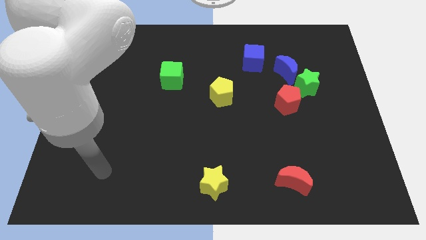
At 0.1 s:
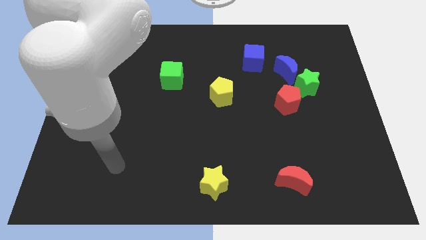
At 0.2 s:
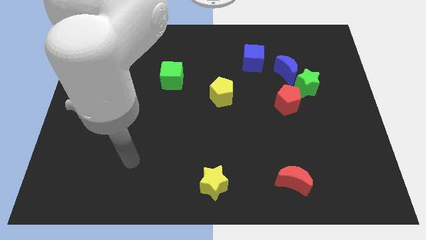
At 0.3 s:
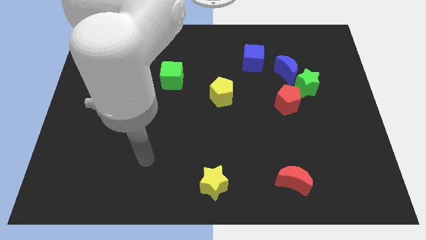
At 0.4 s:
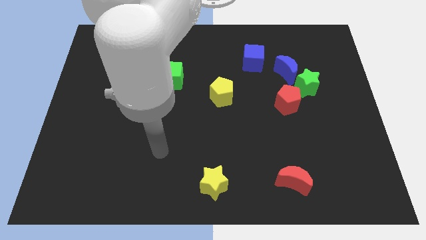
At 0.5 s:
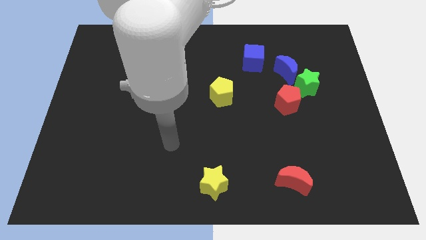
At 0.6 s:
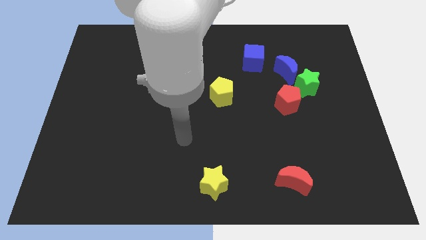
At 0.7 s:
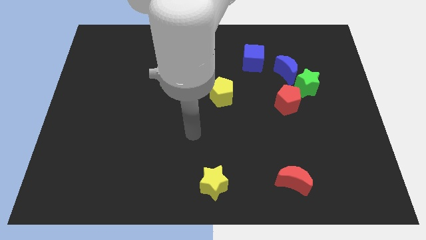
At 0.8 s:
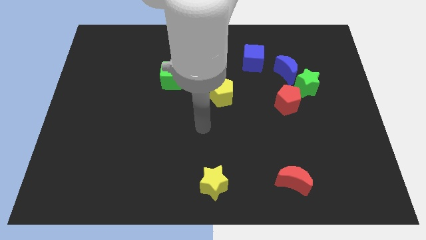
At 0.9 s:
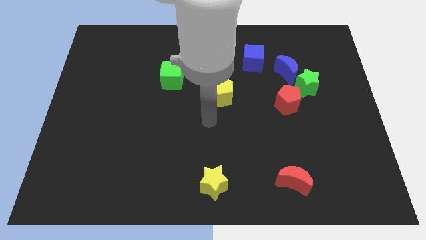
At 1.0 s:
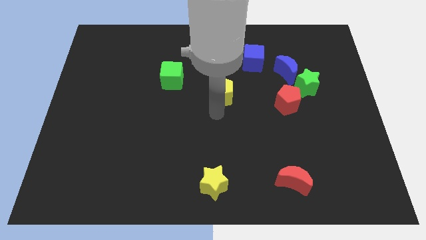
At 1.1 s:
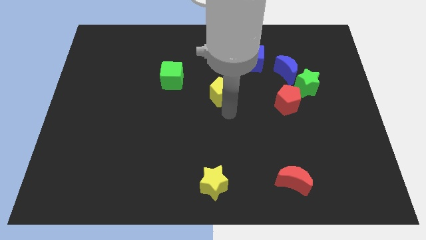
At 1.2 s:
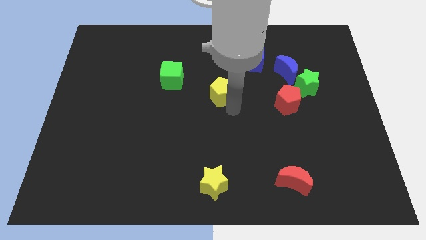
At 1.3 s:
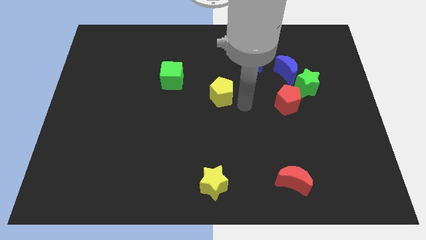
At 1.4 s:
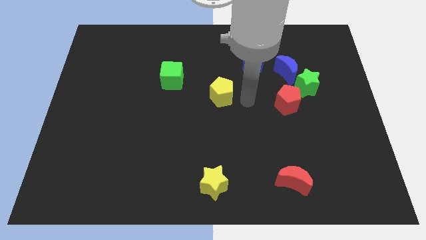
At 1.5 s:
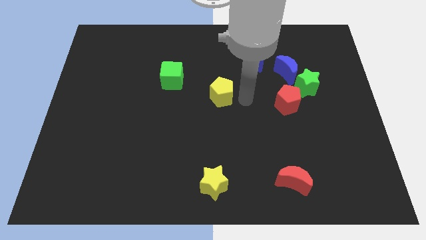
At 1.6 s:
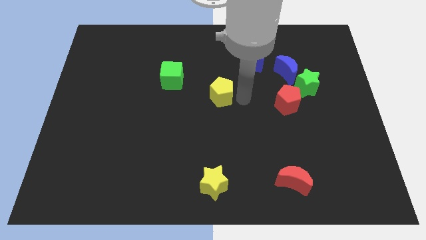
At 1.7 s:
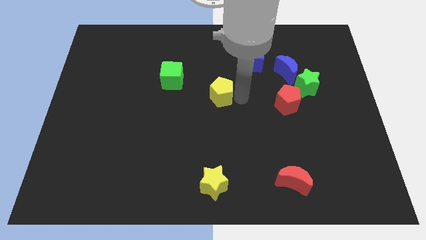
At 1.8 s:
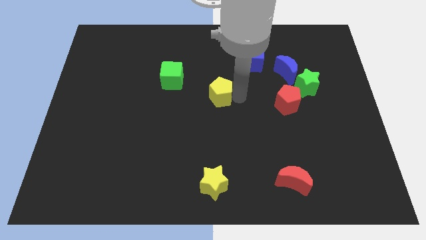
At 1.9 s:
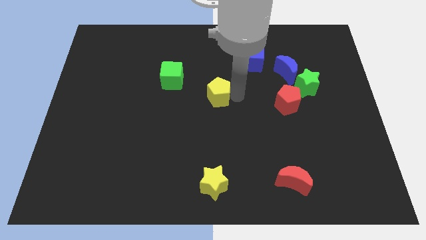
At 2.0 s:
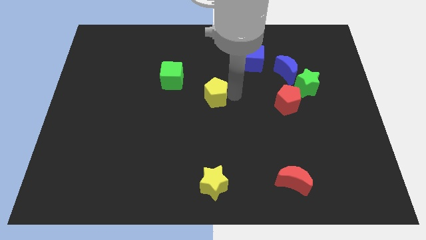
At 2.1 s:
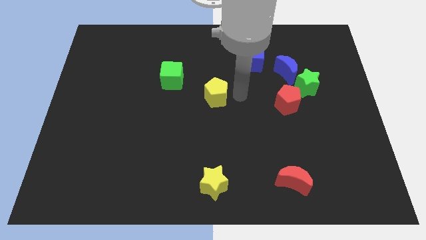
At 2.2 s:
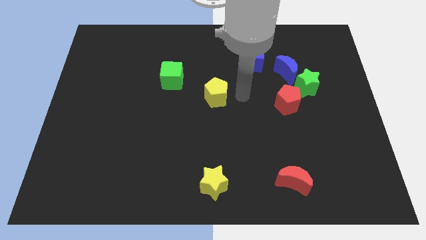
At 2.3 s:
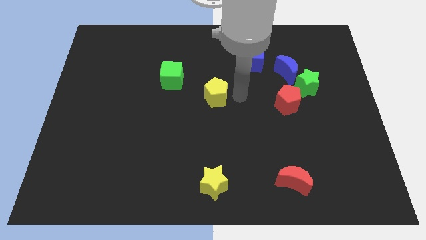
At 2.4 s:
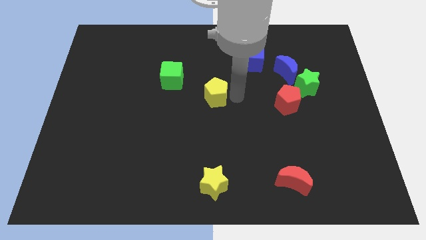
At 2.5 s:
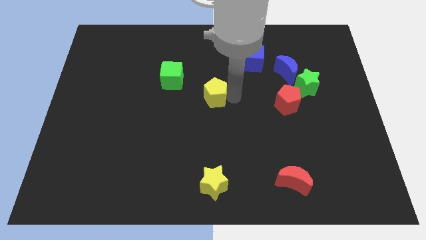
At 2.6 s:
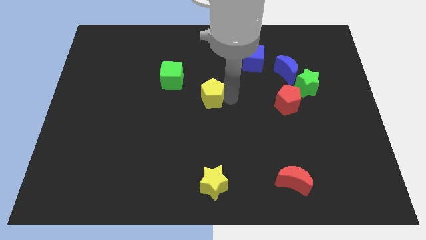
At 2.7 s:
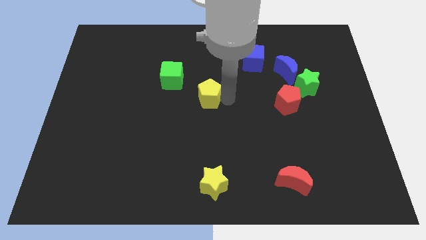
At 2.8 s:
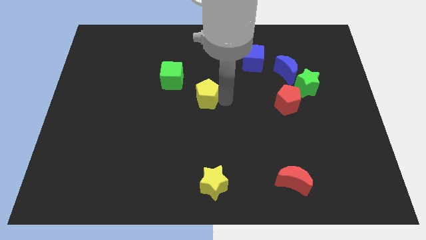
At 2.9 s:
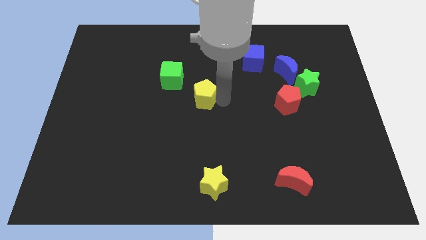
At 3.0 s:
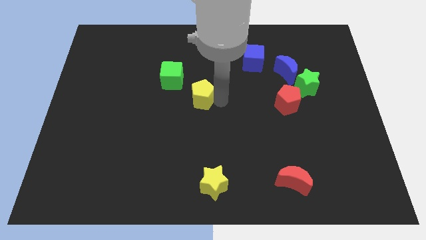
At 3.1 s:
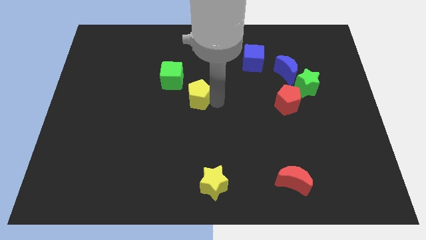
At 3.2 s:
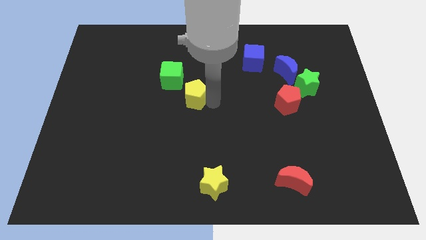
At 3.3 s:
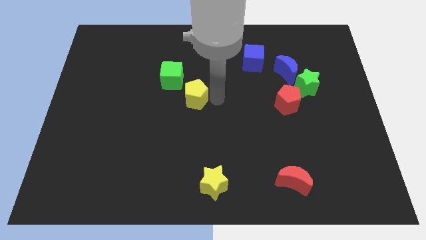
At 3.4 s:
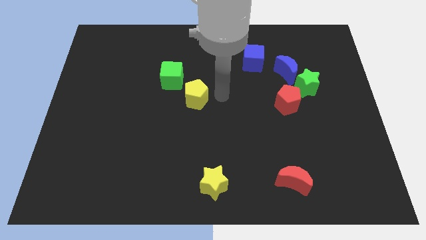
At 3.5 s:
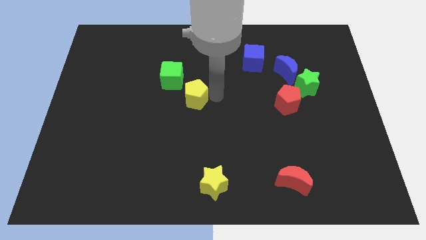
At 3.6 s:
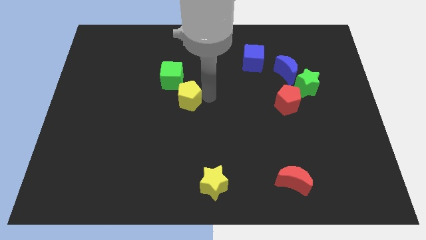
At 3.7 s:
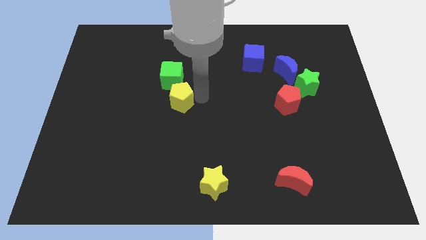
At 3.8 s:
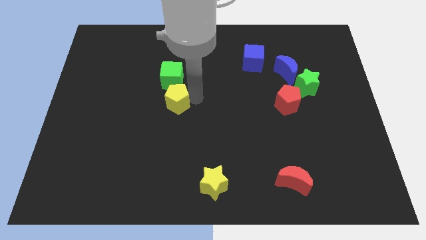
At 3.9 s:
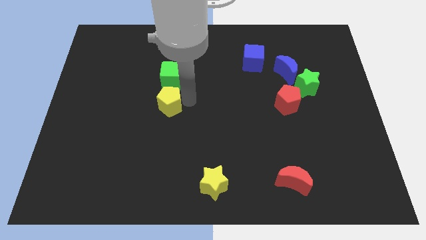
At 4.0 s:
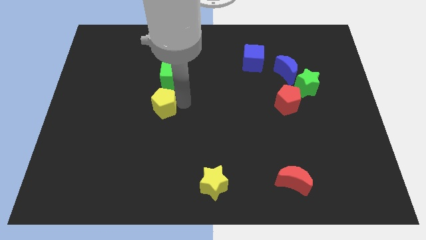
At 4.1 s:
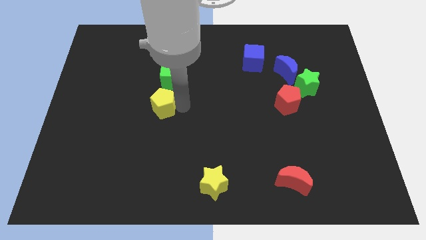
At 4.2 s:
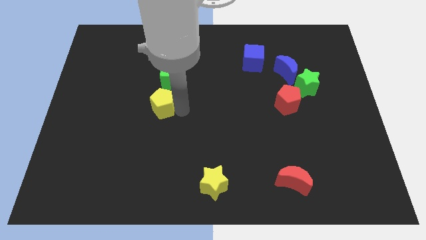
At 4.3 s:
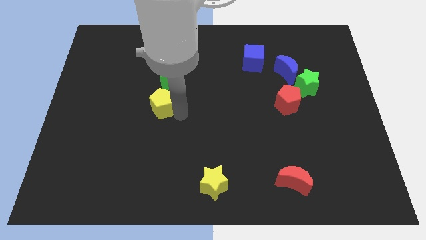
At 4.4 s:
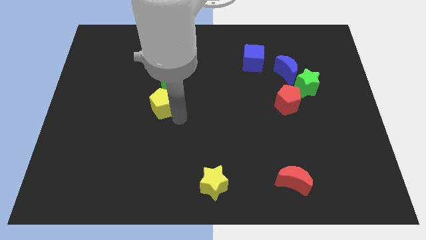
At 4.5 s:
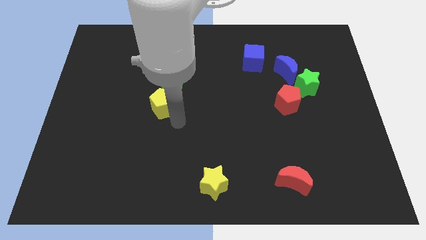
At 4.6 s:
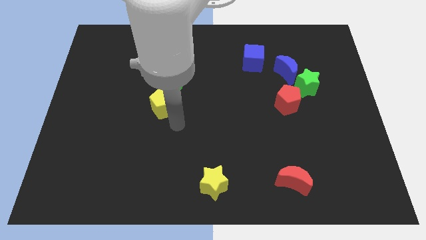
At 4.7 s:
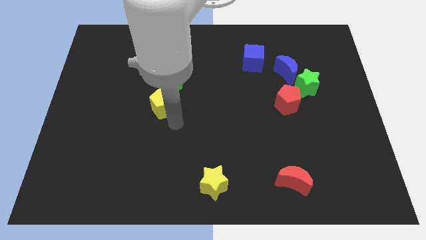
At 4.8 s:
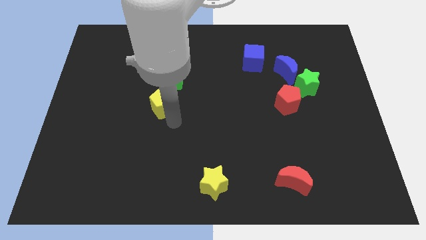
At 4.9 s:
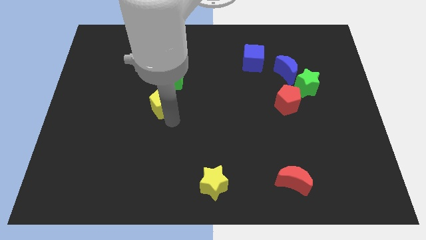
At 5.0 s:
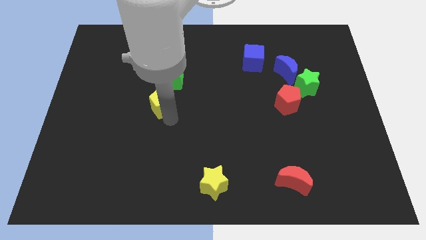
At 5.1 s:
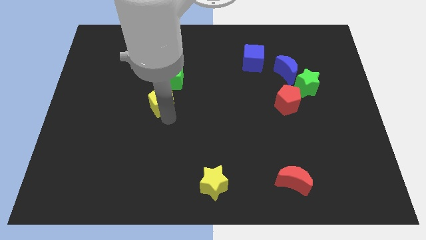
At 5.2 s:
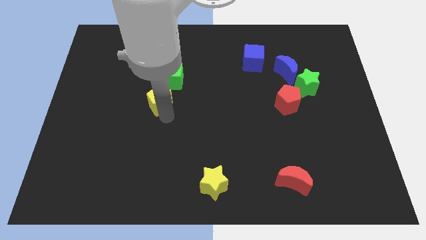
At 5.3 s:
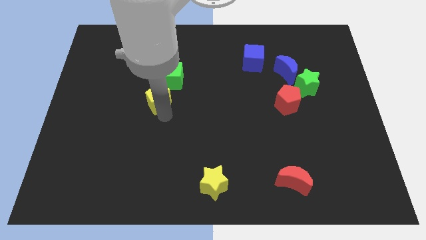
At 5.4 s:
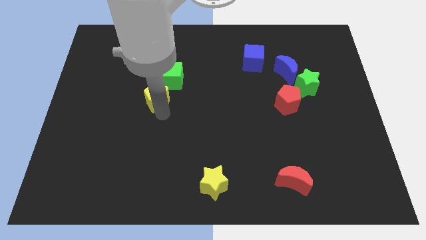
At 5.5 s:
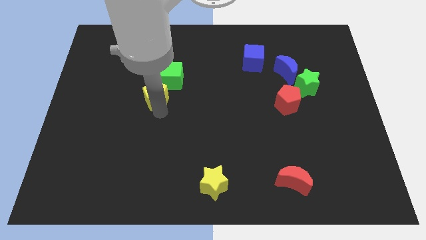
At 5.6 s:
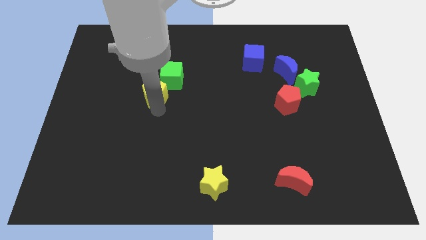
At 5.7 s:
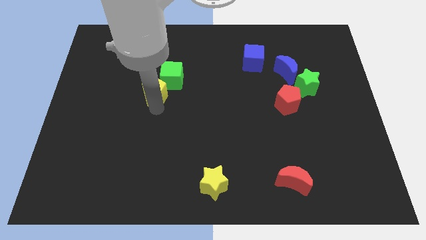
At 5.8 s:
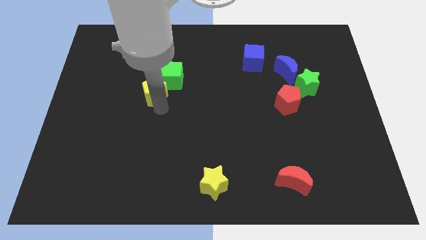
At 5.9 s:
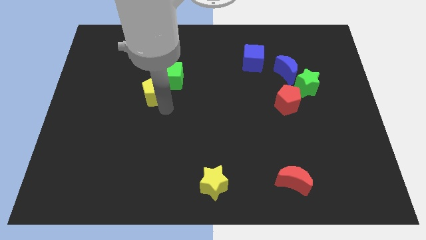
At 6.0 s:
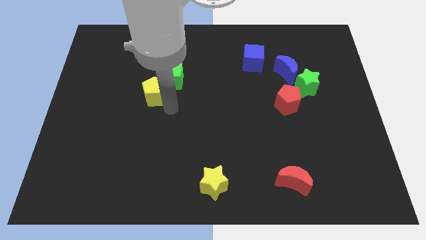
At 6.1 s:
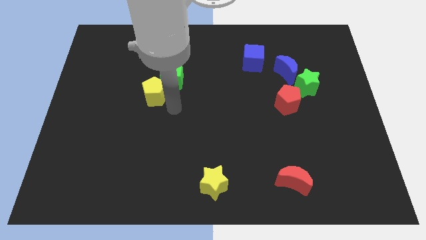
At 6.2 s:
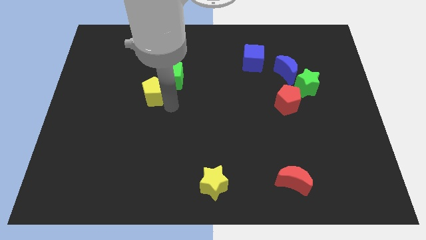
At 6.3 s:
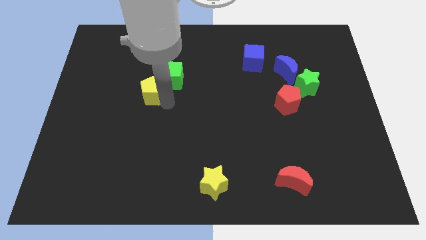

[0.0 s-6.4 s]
move the yellow pentagon to the left side of the green cube

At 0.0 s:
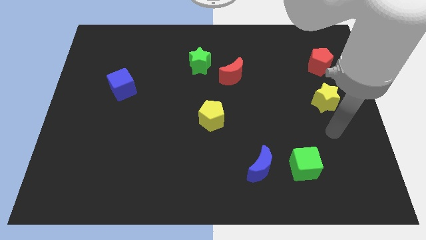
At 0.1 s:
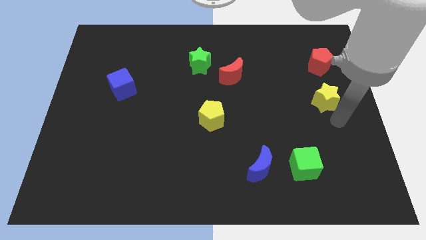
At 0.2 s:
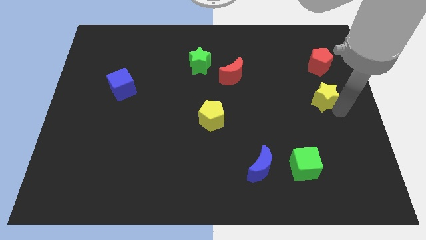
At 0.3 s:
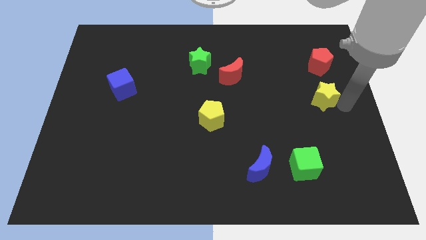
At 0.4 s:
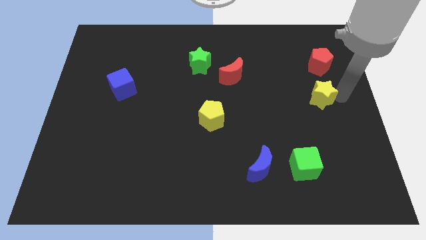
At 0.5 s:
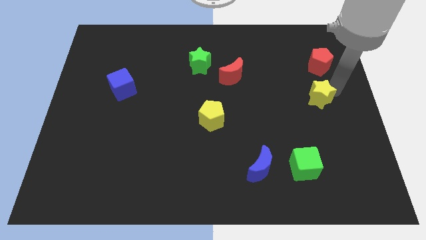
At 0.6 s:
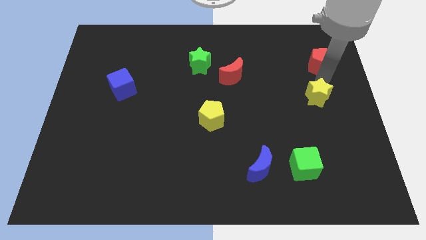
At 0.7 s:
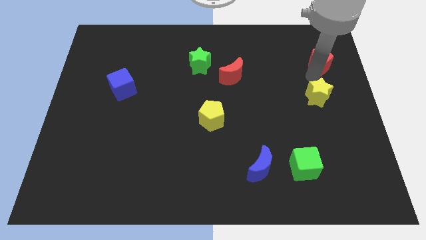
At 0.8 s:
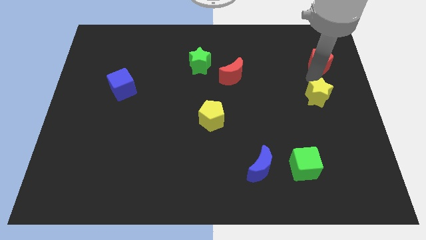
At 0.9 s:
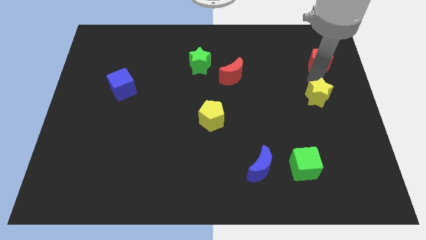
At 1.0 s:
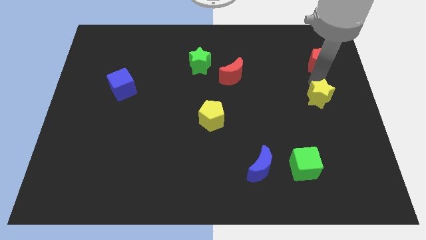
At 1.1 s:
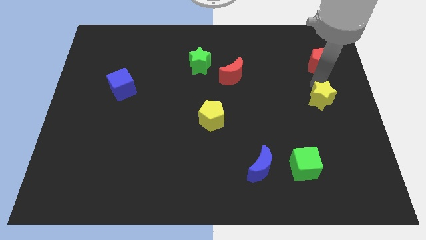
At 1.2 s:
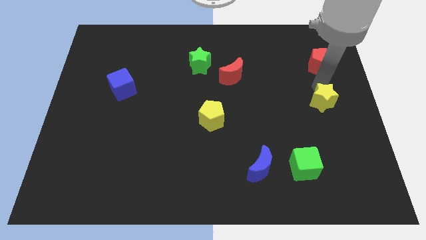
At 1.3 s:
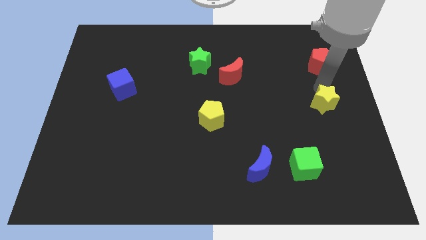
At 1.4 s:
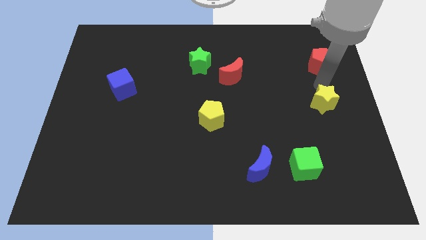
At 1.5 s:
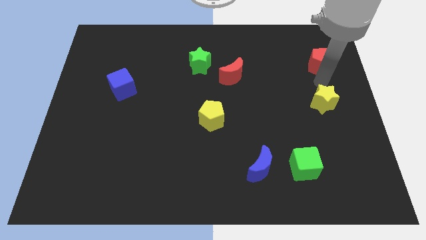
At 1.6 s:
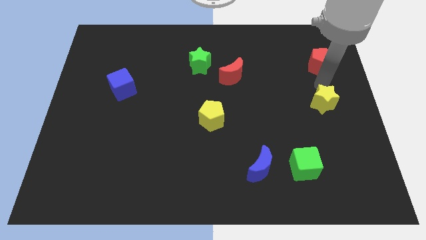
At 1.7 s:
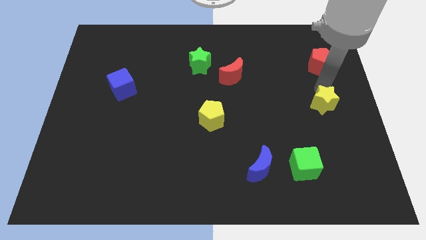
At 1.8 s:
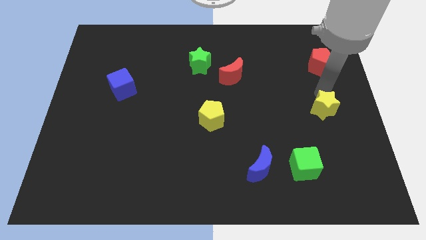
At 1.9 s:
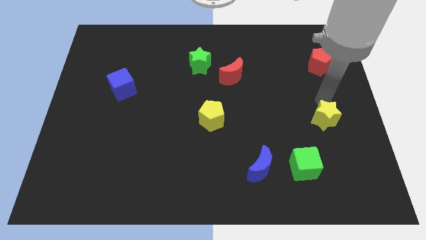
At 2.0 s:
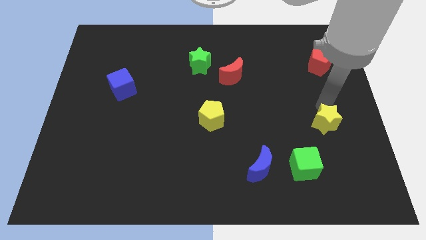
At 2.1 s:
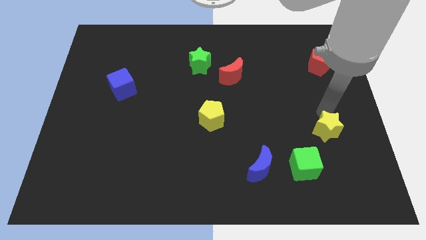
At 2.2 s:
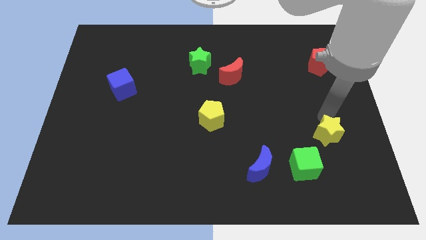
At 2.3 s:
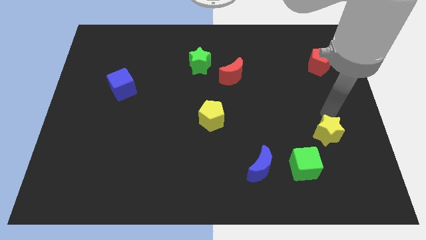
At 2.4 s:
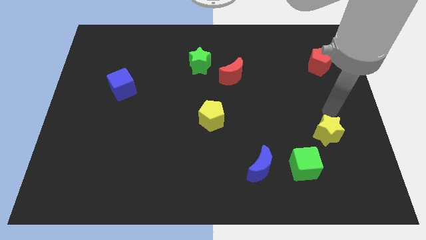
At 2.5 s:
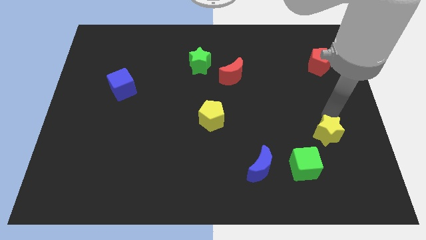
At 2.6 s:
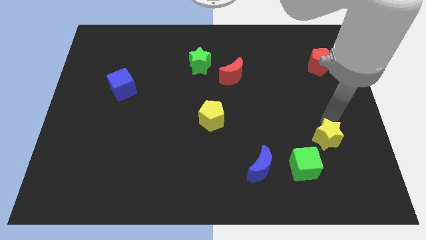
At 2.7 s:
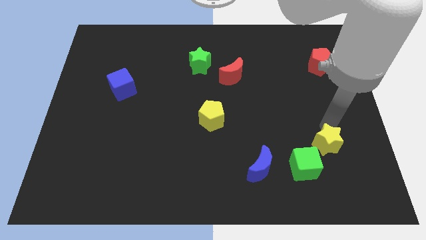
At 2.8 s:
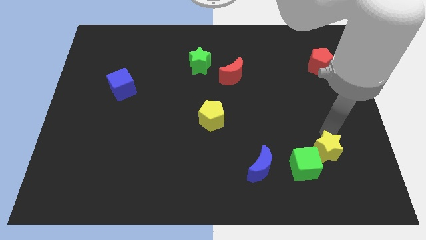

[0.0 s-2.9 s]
move the yellow star just right of the blue moon
